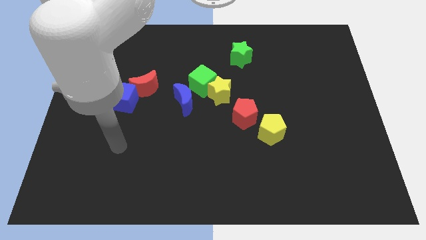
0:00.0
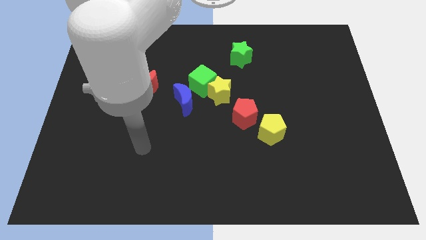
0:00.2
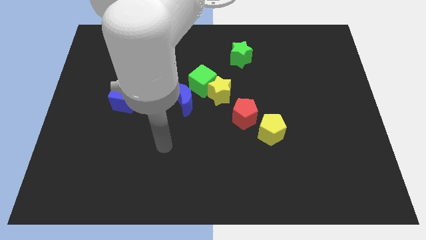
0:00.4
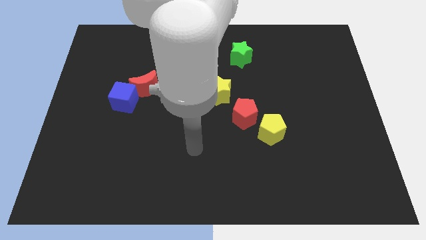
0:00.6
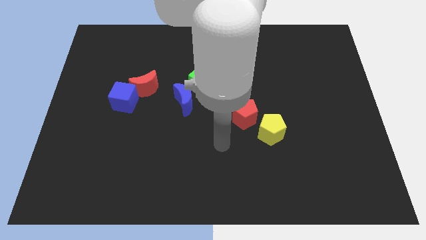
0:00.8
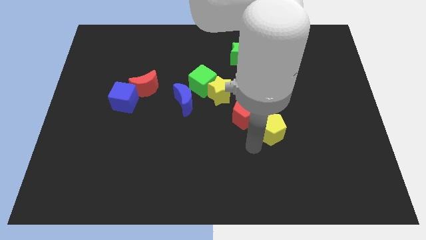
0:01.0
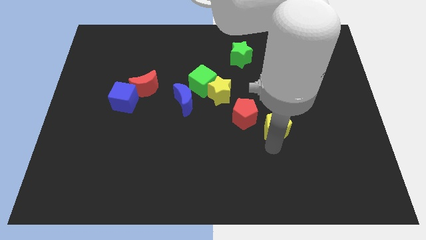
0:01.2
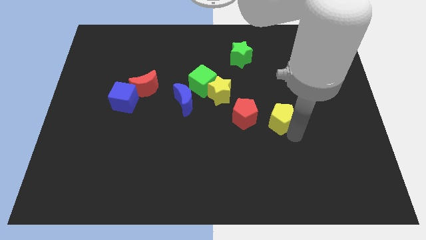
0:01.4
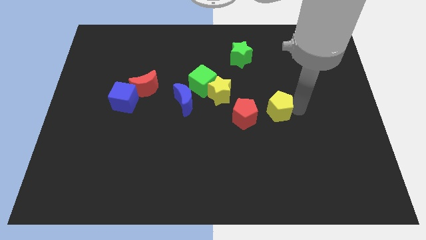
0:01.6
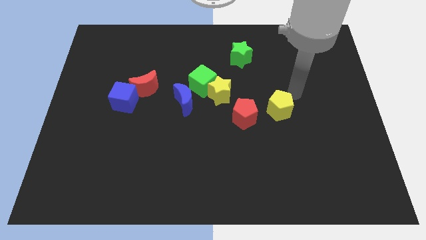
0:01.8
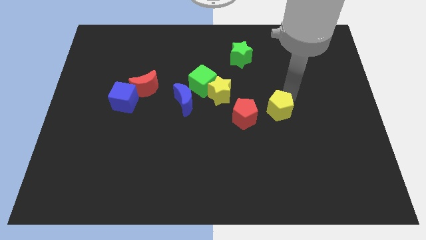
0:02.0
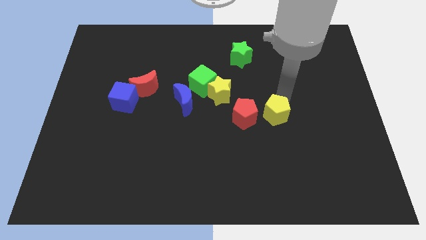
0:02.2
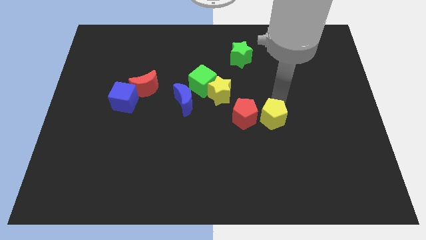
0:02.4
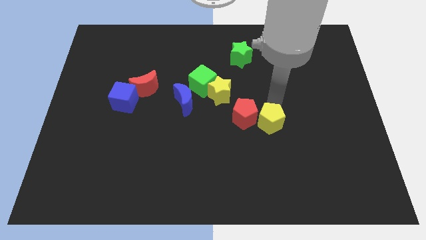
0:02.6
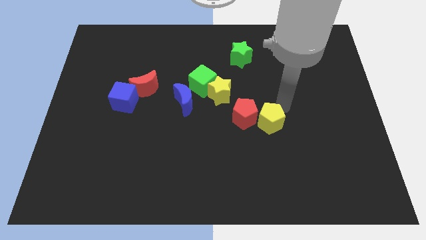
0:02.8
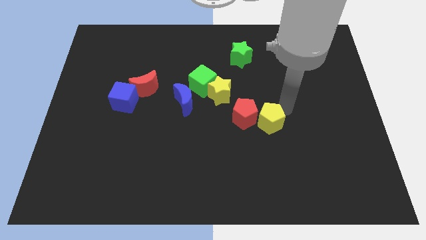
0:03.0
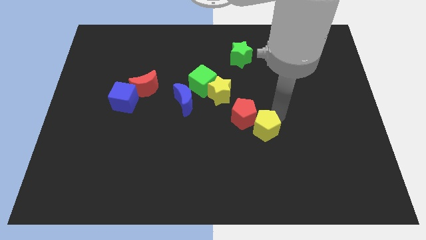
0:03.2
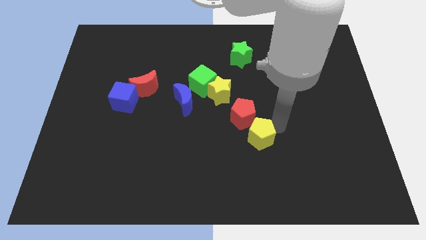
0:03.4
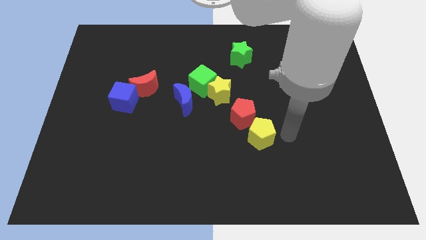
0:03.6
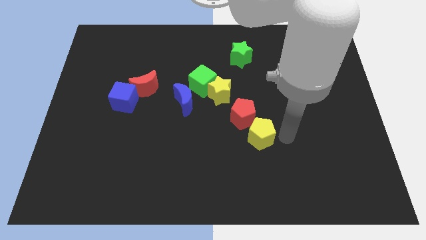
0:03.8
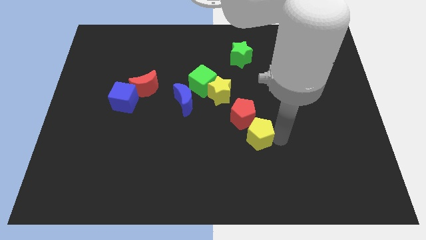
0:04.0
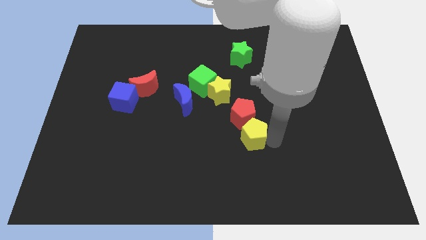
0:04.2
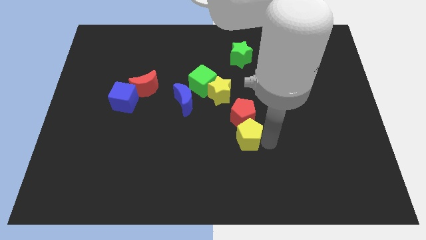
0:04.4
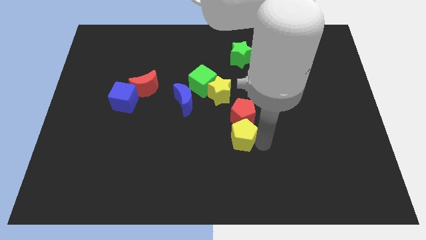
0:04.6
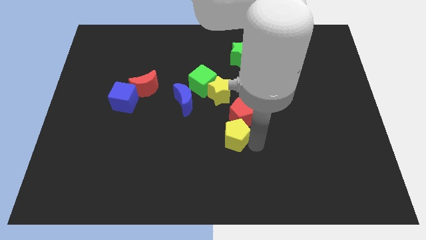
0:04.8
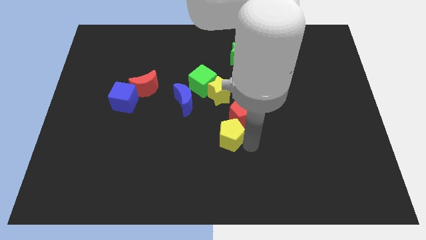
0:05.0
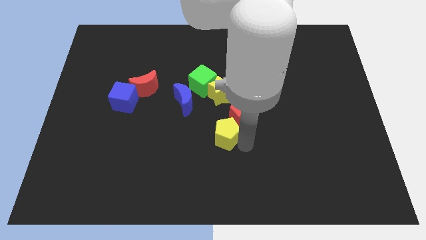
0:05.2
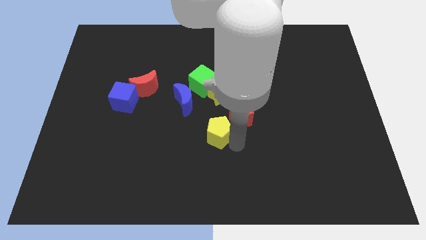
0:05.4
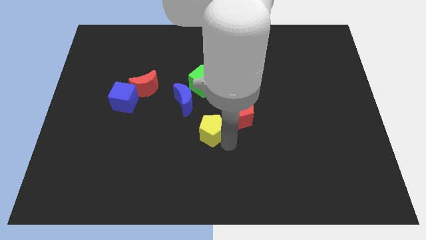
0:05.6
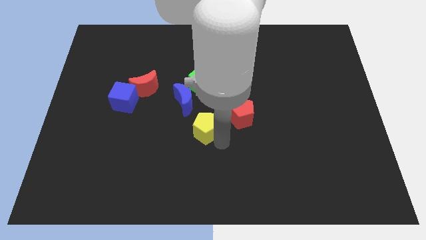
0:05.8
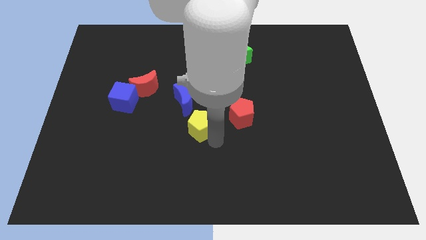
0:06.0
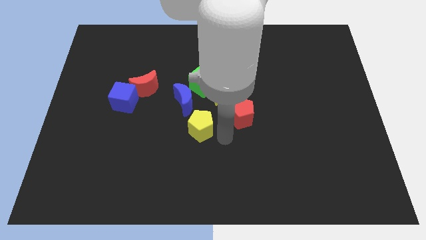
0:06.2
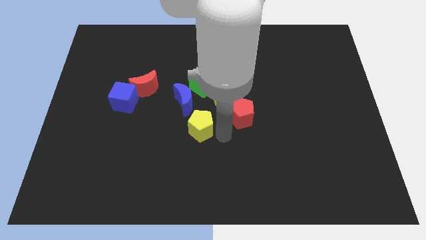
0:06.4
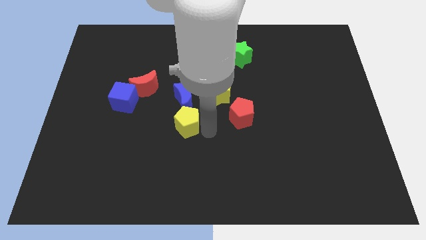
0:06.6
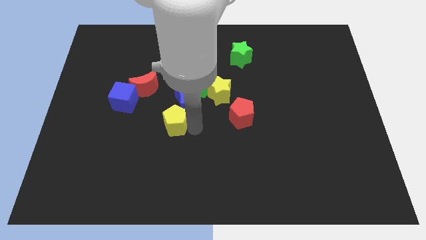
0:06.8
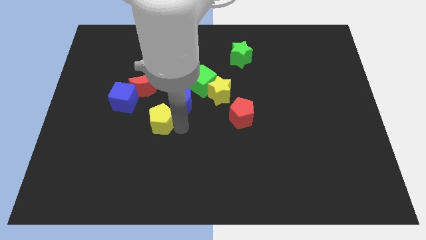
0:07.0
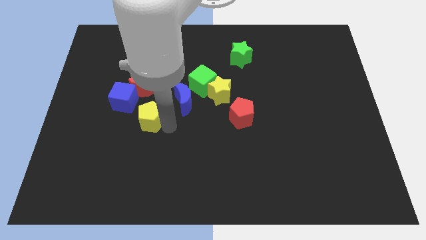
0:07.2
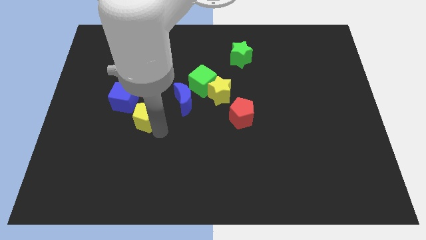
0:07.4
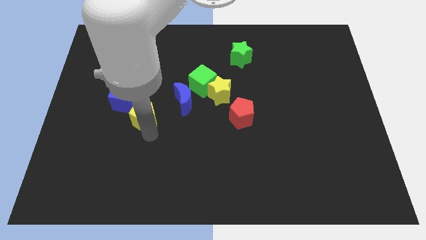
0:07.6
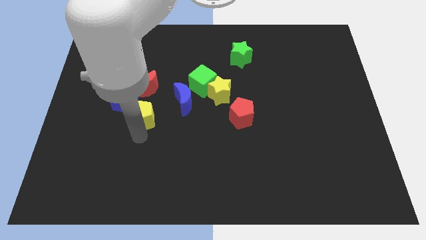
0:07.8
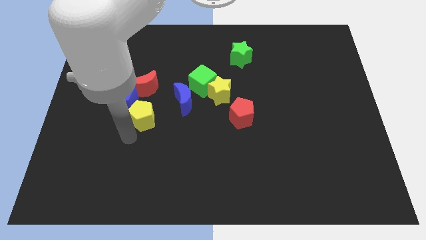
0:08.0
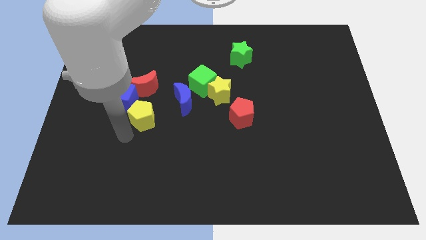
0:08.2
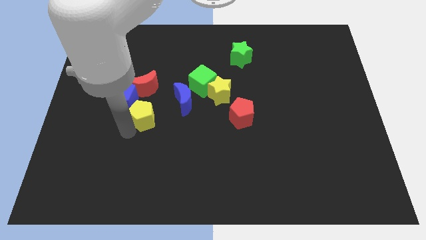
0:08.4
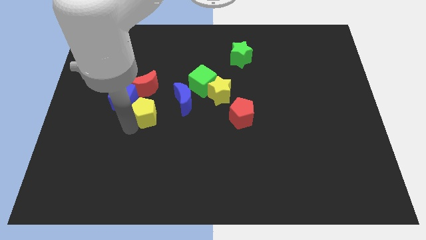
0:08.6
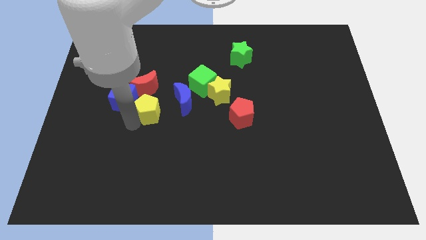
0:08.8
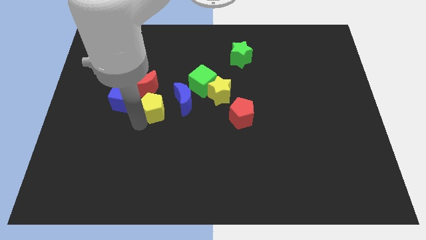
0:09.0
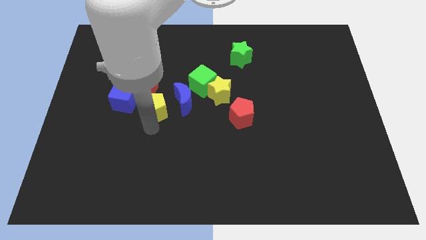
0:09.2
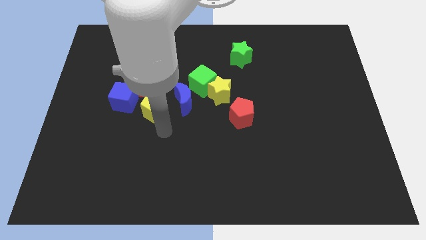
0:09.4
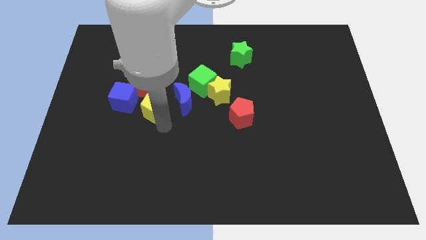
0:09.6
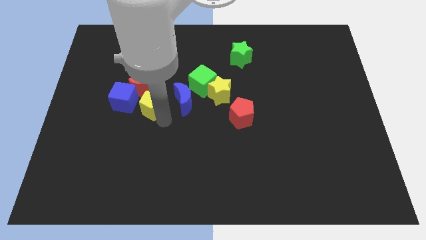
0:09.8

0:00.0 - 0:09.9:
slide the yellow pentagon next to the red moon

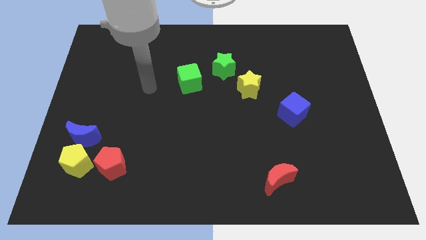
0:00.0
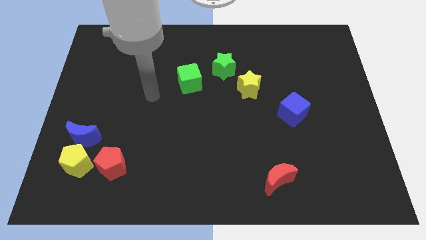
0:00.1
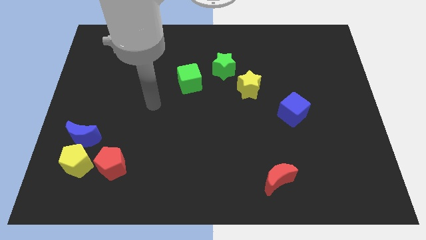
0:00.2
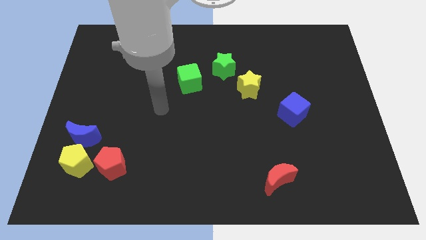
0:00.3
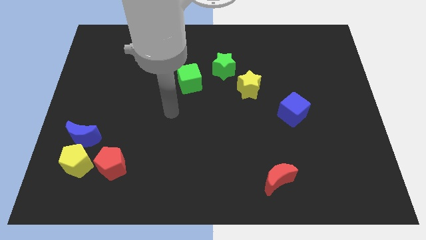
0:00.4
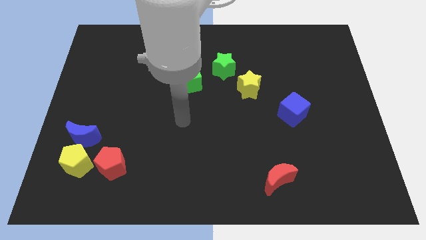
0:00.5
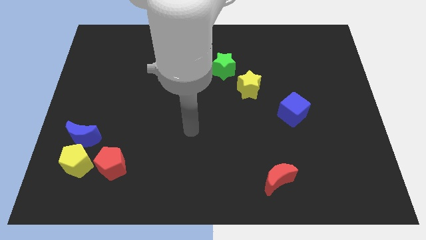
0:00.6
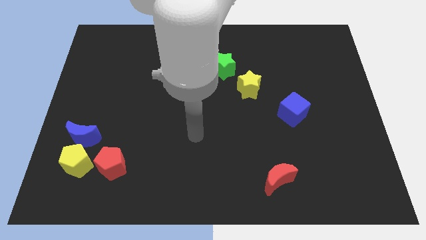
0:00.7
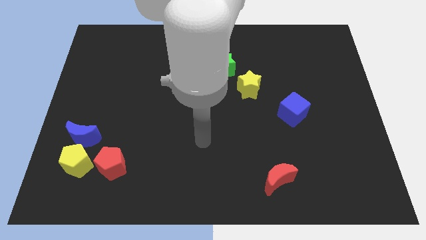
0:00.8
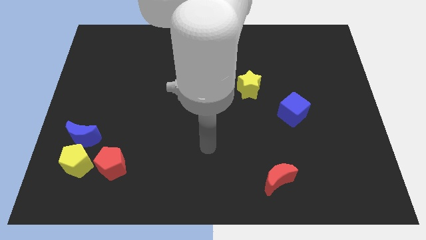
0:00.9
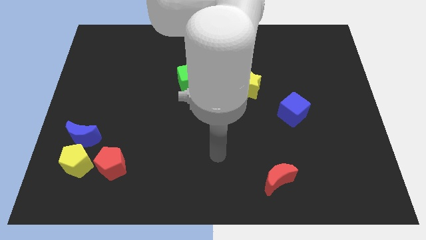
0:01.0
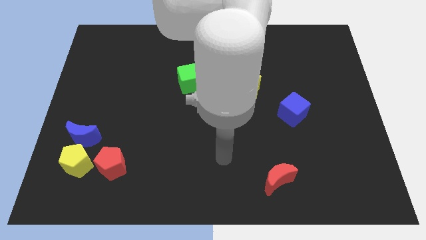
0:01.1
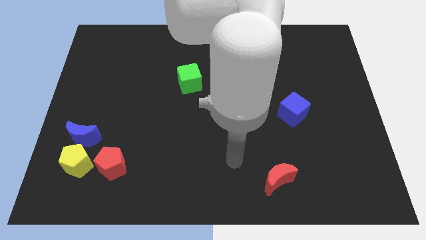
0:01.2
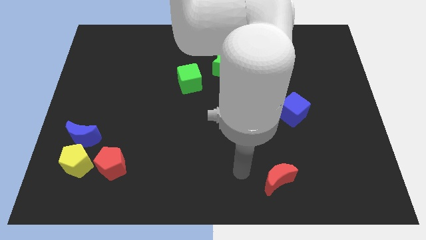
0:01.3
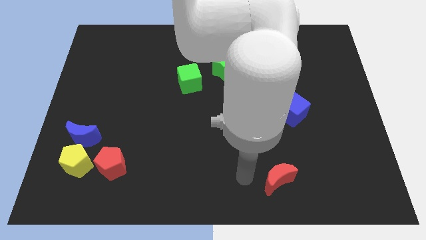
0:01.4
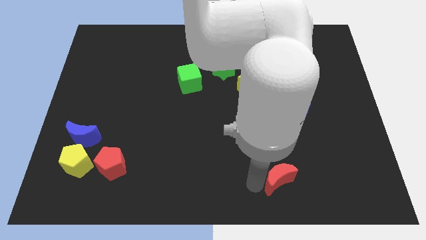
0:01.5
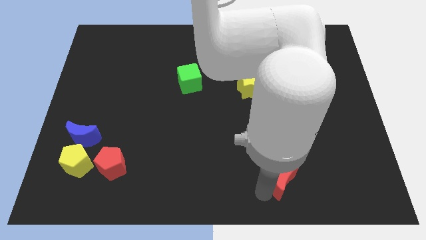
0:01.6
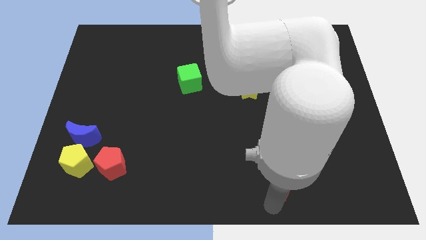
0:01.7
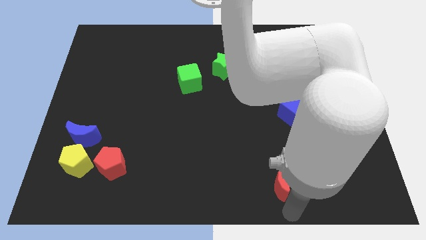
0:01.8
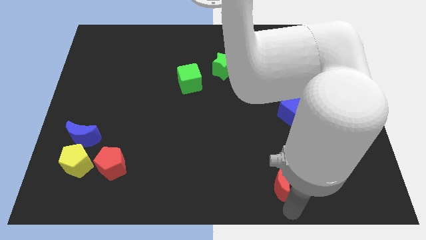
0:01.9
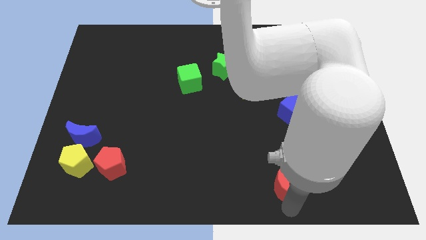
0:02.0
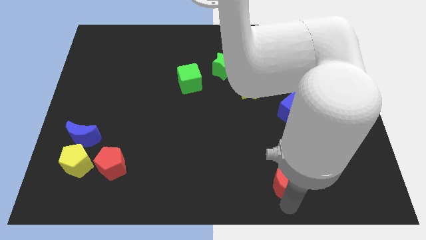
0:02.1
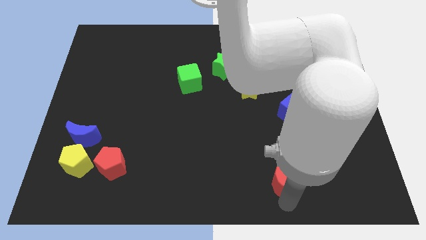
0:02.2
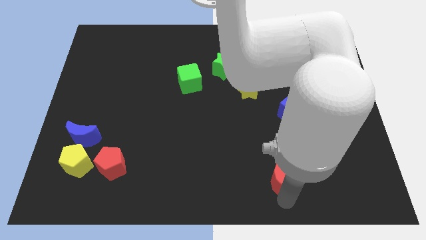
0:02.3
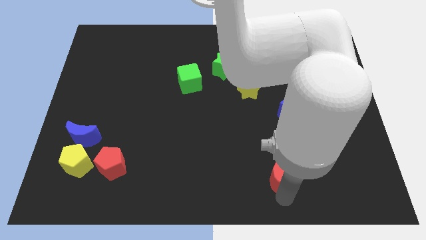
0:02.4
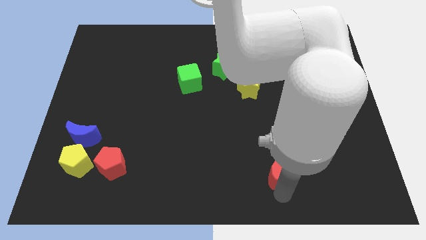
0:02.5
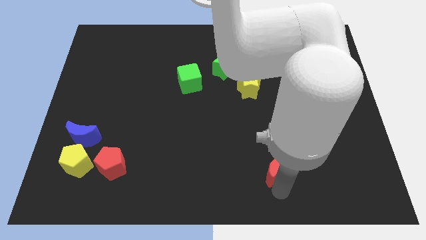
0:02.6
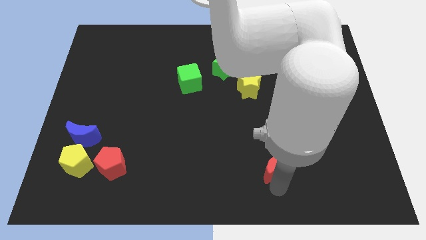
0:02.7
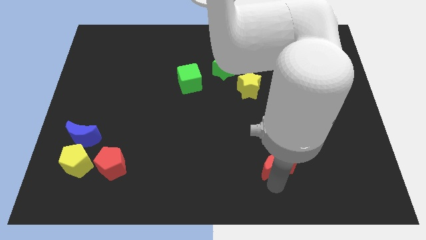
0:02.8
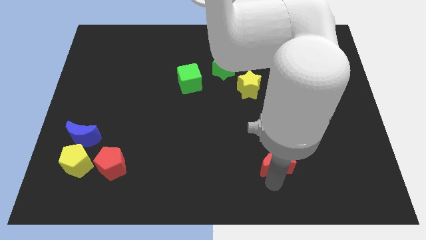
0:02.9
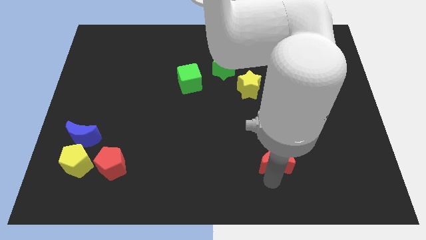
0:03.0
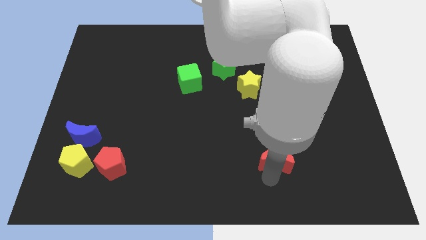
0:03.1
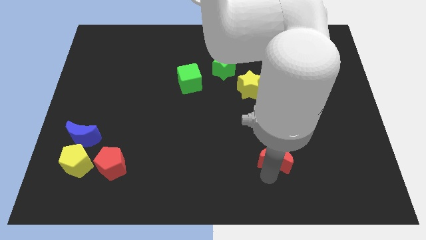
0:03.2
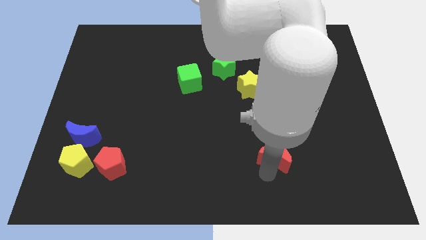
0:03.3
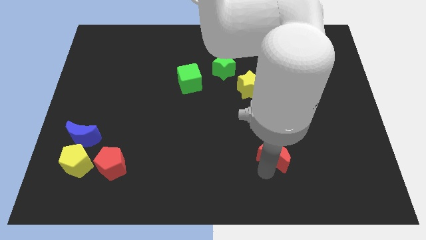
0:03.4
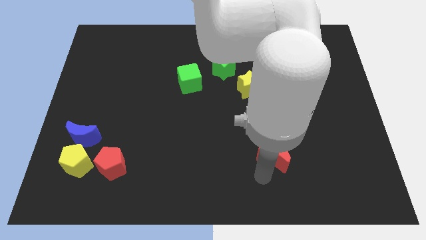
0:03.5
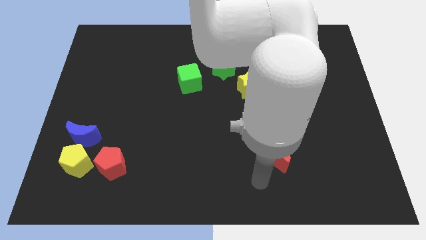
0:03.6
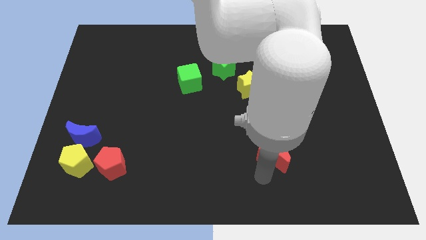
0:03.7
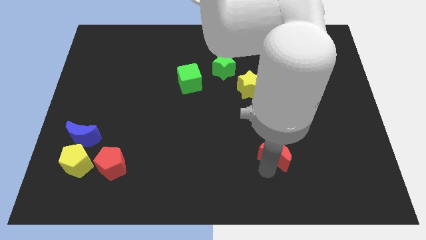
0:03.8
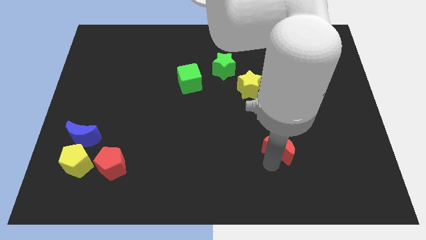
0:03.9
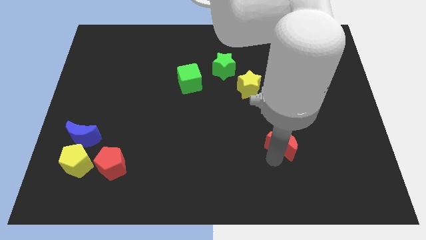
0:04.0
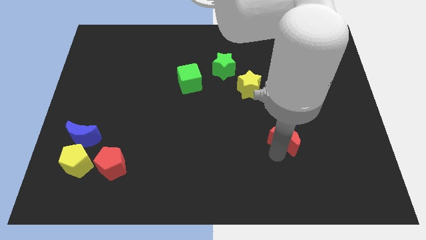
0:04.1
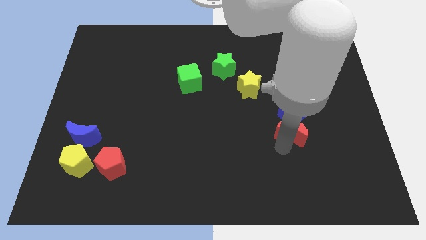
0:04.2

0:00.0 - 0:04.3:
put the red moon next to the blue cube
